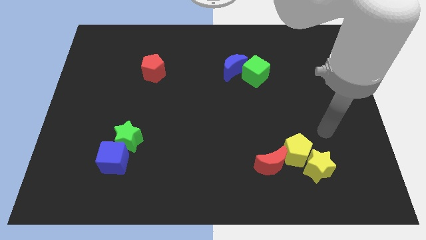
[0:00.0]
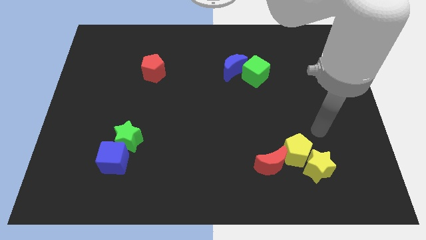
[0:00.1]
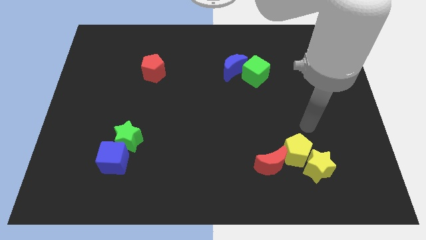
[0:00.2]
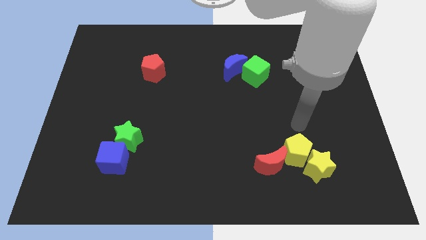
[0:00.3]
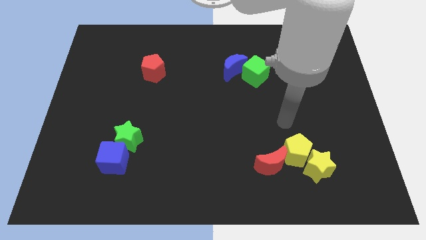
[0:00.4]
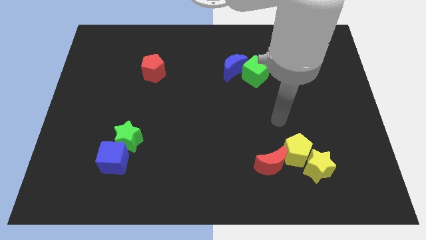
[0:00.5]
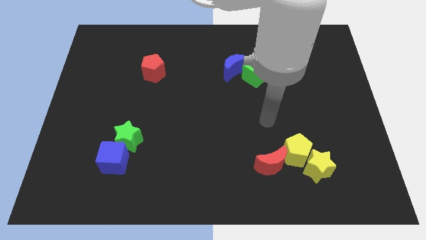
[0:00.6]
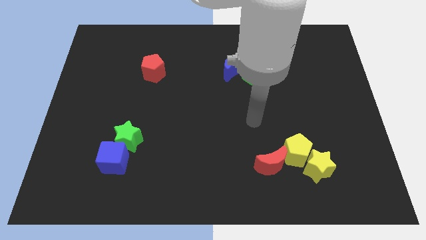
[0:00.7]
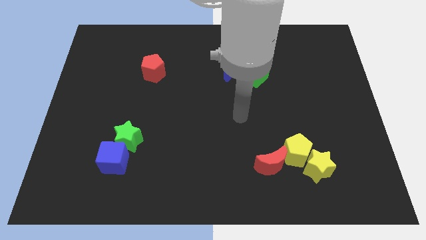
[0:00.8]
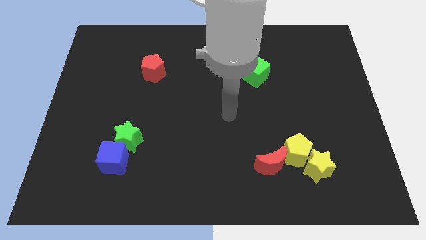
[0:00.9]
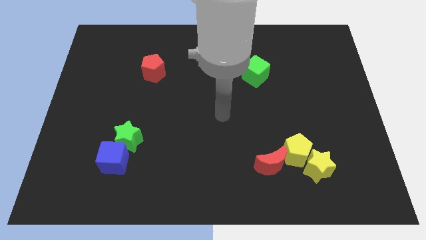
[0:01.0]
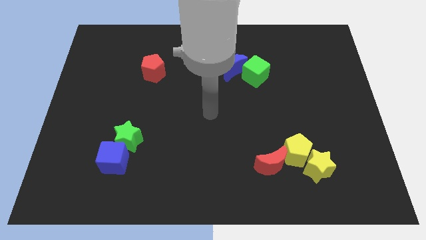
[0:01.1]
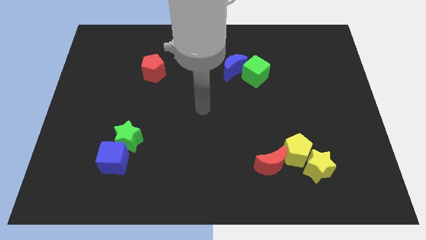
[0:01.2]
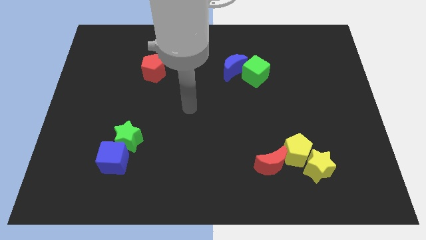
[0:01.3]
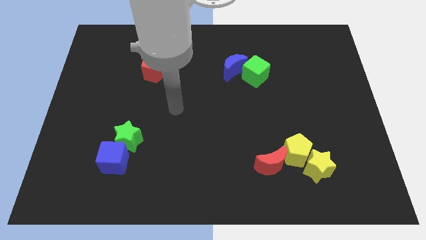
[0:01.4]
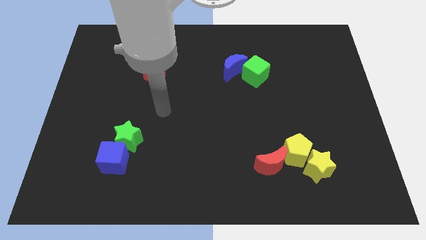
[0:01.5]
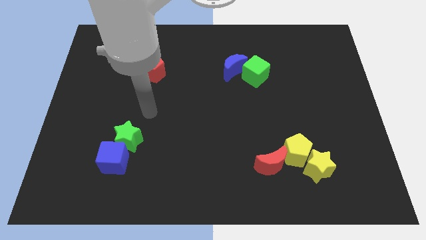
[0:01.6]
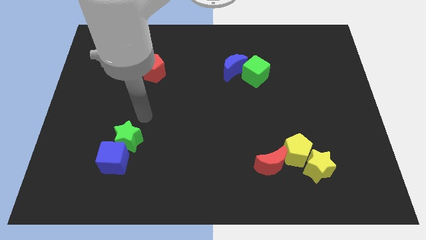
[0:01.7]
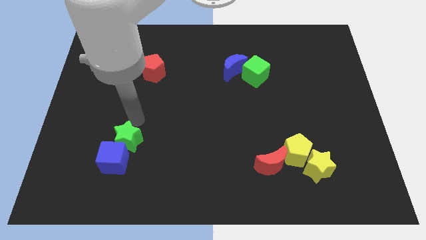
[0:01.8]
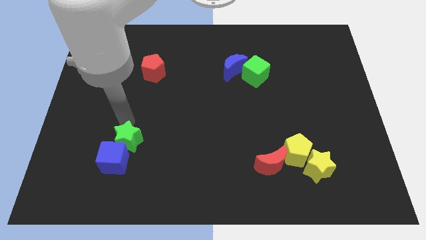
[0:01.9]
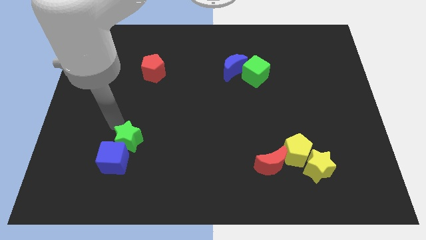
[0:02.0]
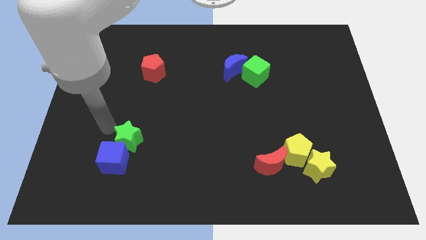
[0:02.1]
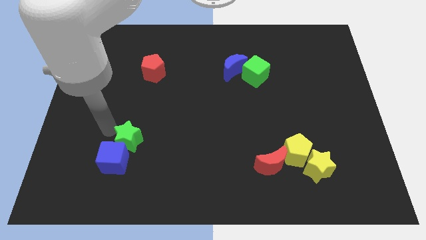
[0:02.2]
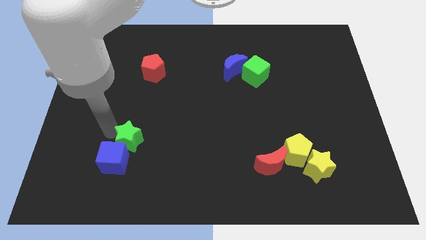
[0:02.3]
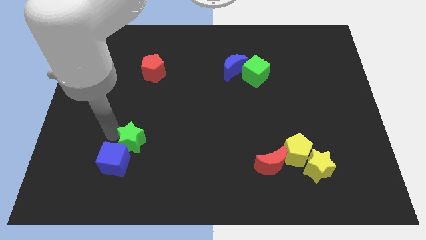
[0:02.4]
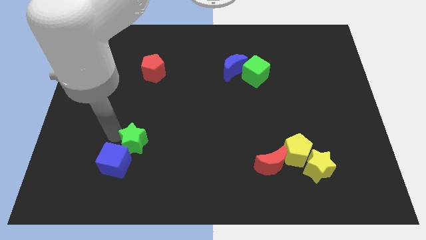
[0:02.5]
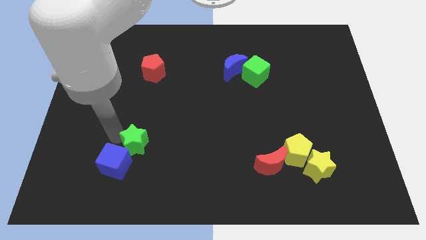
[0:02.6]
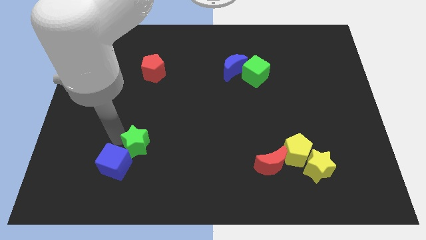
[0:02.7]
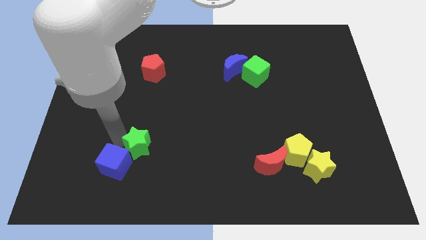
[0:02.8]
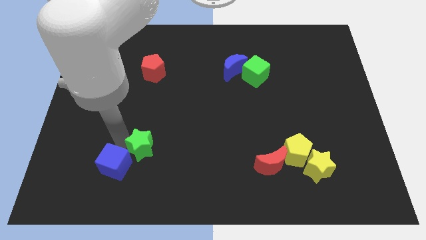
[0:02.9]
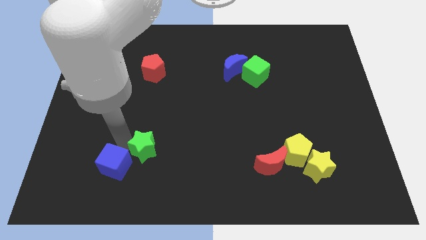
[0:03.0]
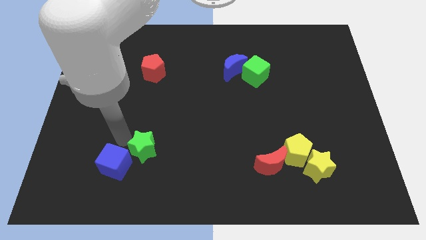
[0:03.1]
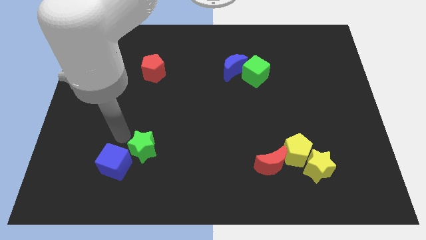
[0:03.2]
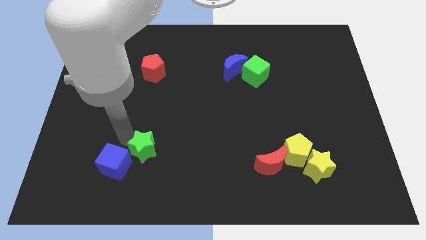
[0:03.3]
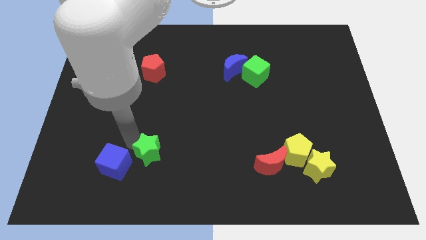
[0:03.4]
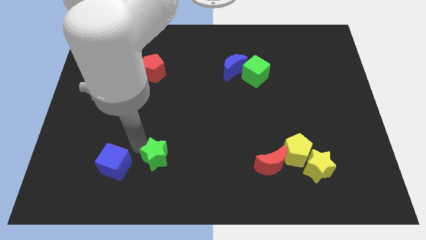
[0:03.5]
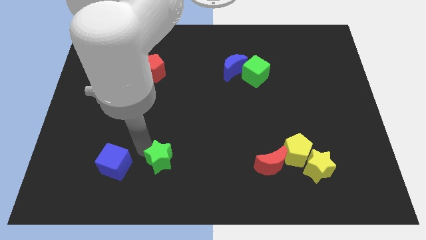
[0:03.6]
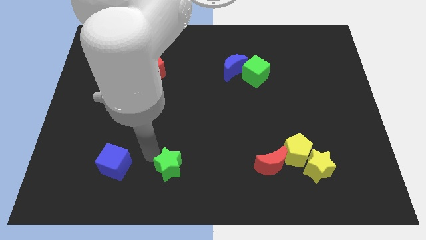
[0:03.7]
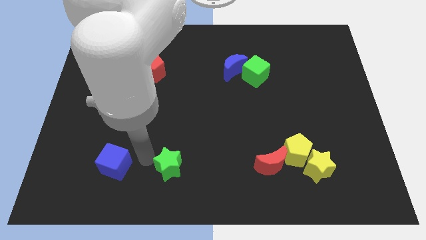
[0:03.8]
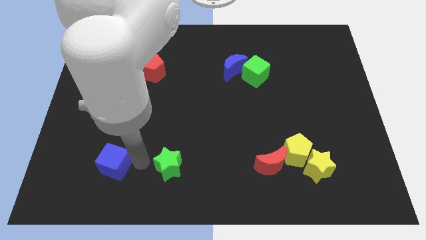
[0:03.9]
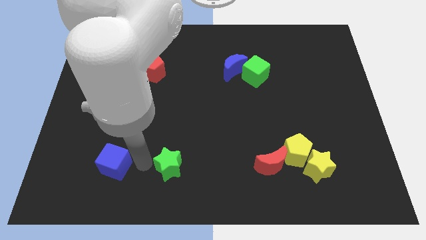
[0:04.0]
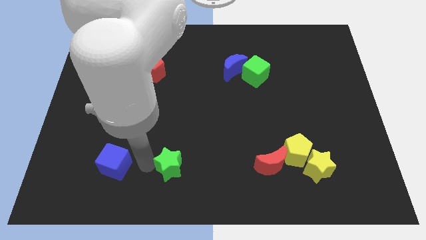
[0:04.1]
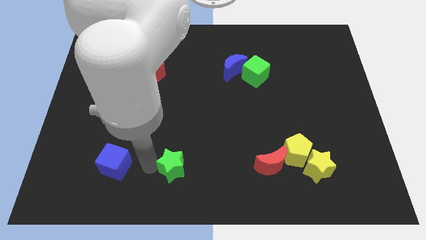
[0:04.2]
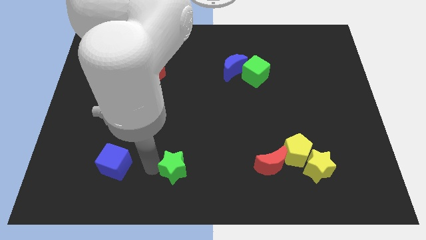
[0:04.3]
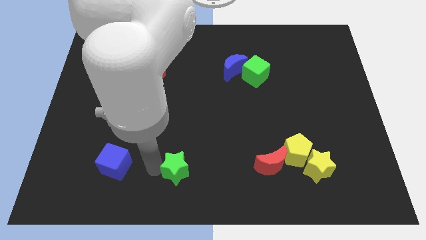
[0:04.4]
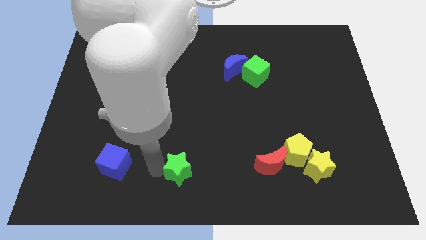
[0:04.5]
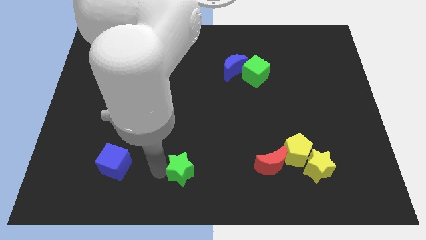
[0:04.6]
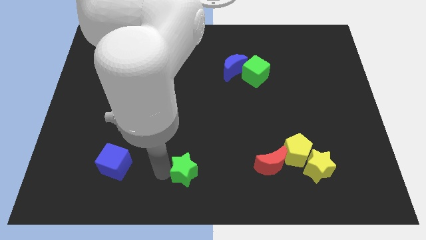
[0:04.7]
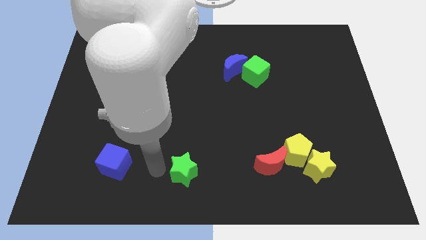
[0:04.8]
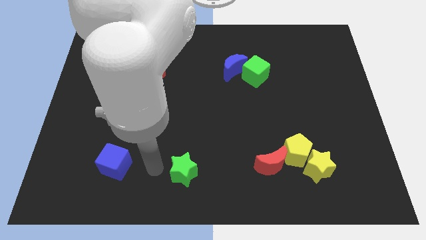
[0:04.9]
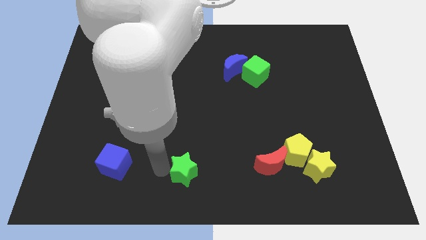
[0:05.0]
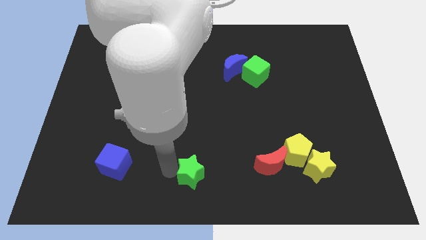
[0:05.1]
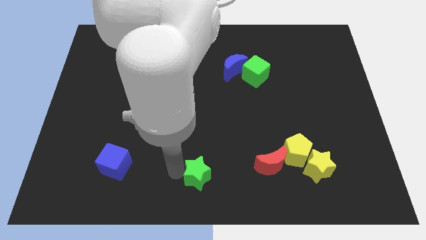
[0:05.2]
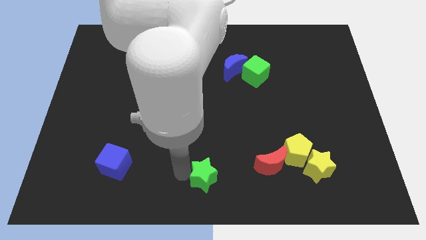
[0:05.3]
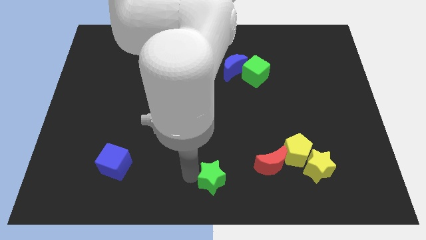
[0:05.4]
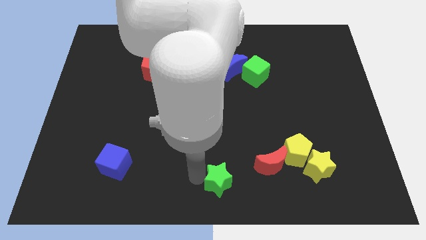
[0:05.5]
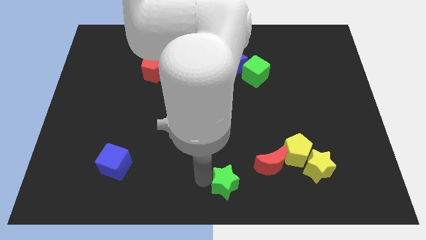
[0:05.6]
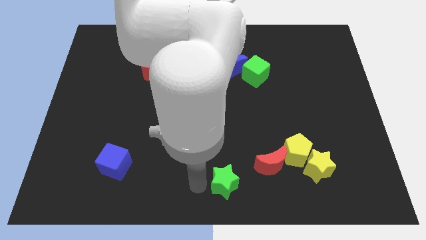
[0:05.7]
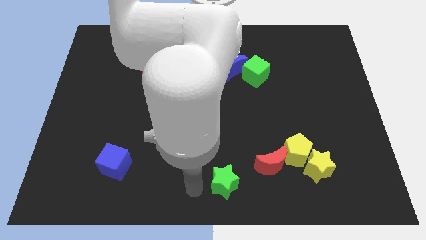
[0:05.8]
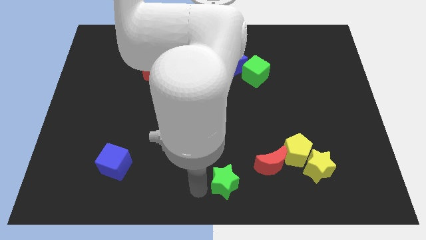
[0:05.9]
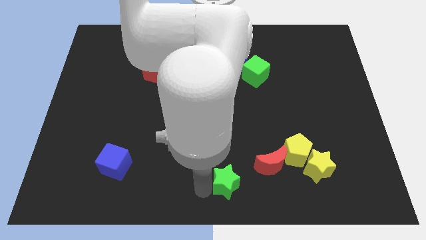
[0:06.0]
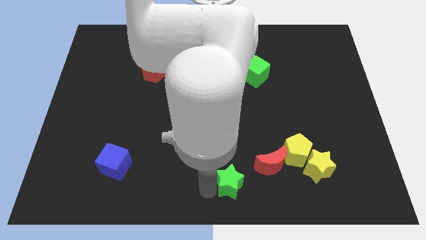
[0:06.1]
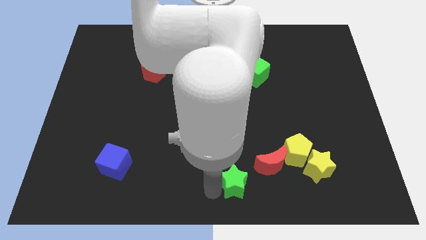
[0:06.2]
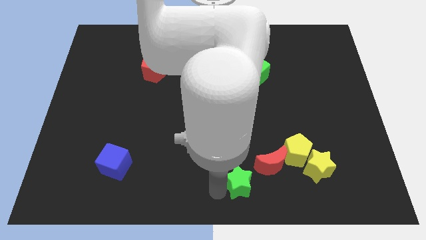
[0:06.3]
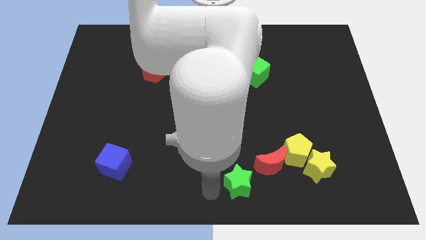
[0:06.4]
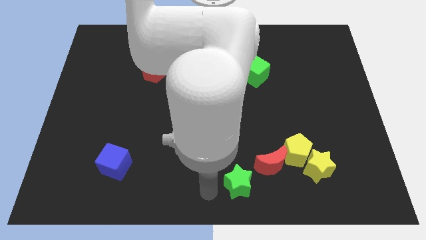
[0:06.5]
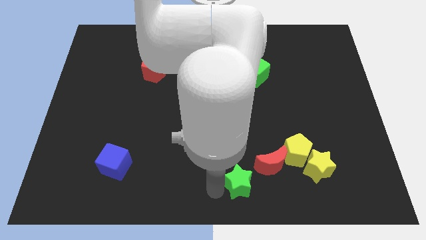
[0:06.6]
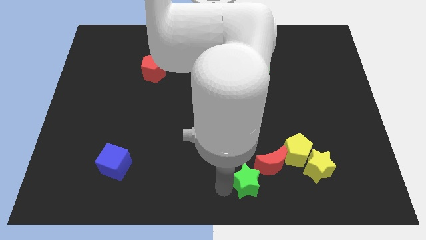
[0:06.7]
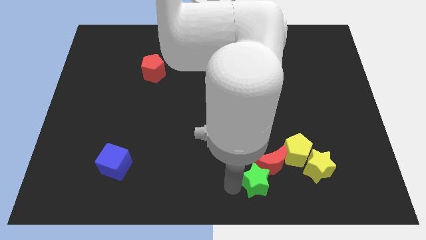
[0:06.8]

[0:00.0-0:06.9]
move the green star to the bottom left of the yellow pentagon
